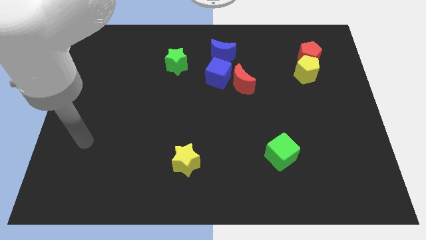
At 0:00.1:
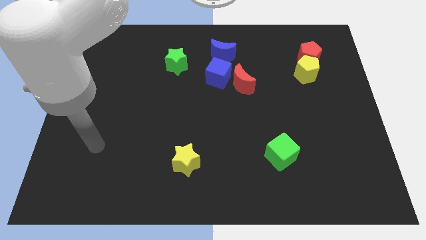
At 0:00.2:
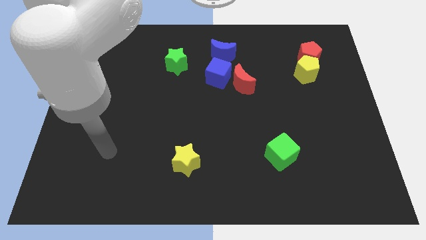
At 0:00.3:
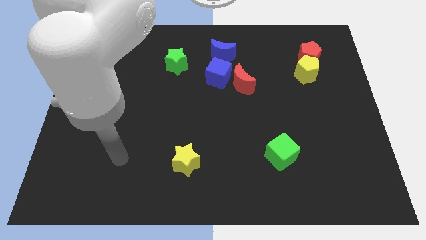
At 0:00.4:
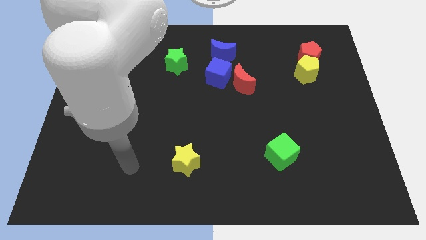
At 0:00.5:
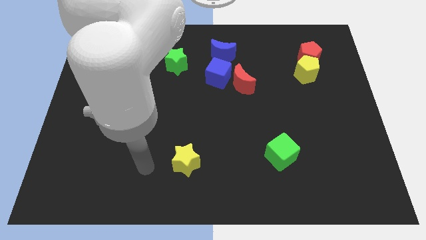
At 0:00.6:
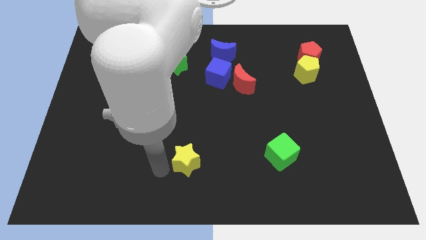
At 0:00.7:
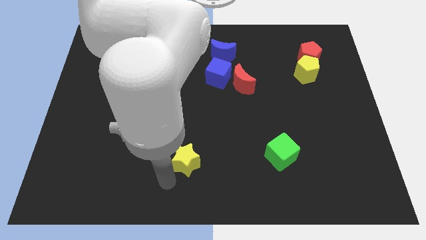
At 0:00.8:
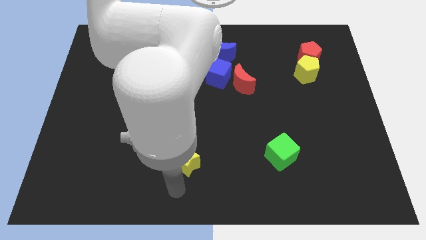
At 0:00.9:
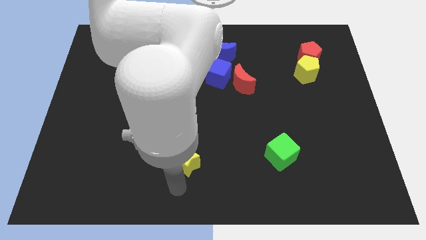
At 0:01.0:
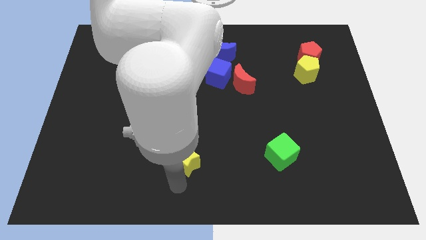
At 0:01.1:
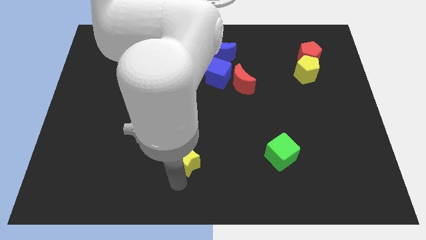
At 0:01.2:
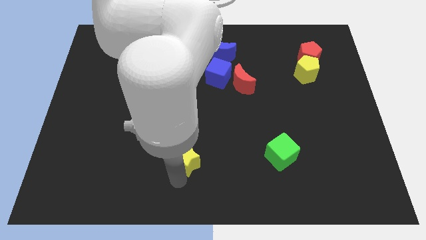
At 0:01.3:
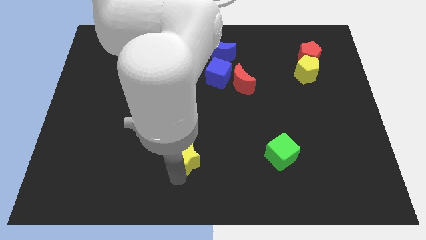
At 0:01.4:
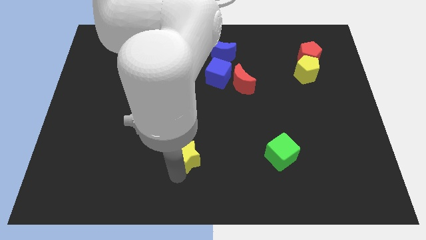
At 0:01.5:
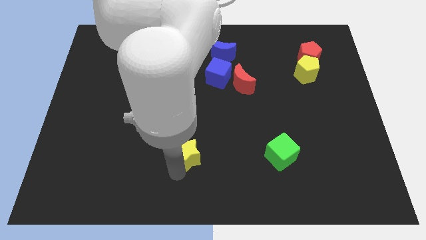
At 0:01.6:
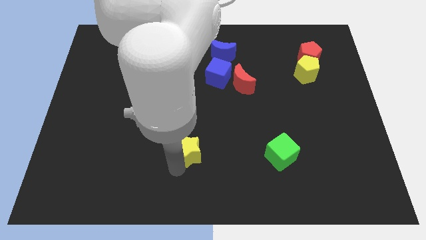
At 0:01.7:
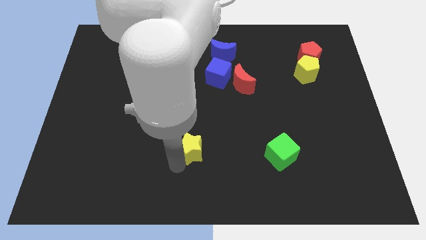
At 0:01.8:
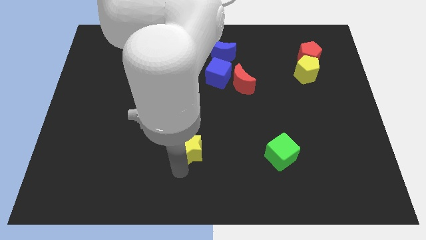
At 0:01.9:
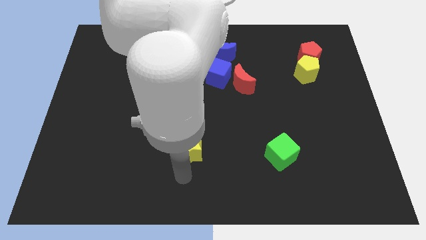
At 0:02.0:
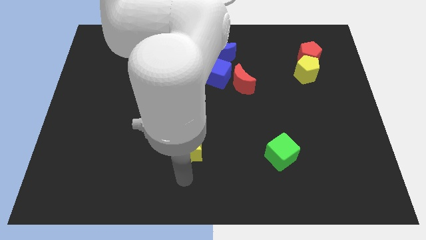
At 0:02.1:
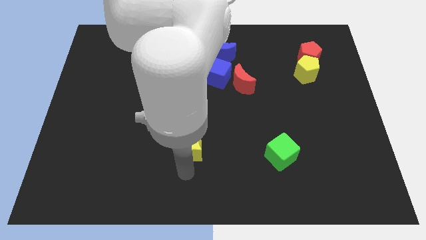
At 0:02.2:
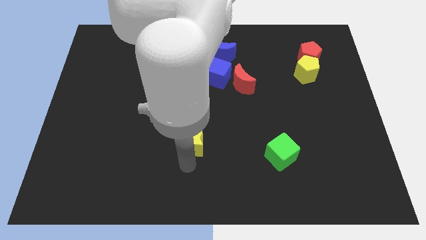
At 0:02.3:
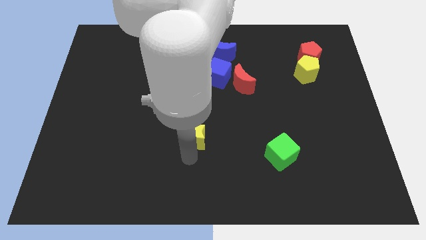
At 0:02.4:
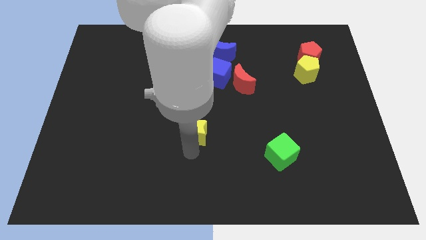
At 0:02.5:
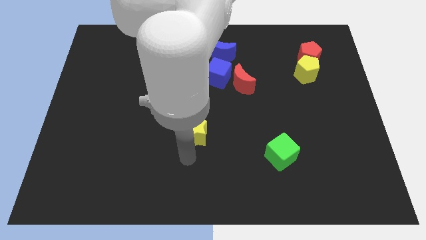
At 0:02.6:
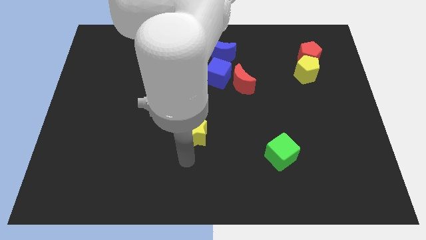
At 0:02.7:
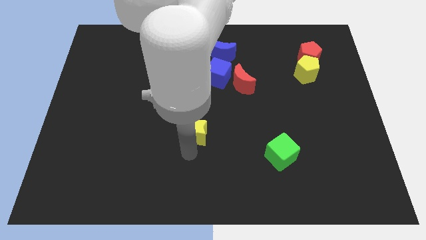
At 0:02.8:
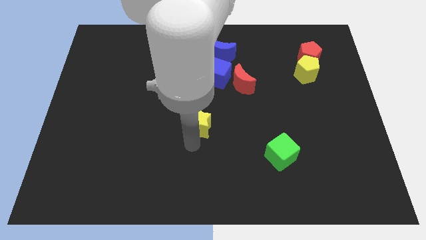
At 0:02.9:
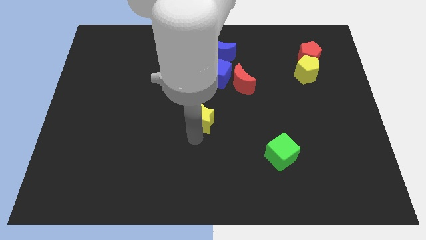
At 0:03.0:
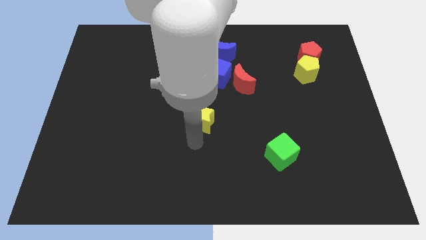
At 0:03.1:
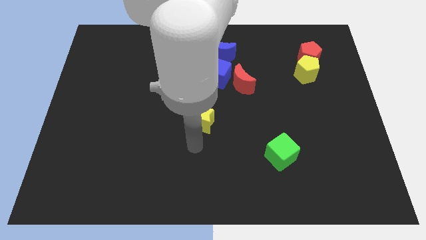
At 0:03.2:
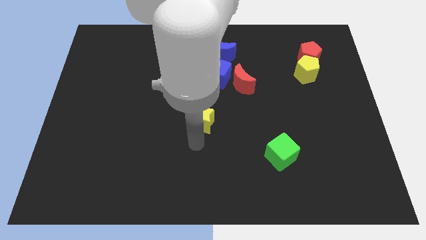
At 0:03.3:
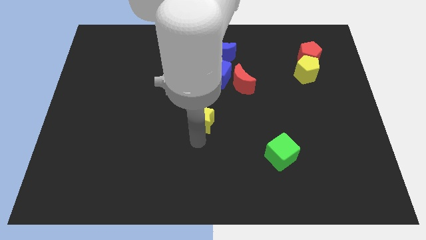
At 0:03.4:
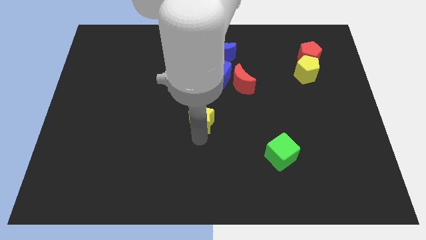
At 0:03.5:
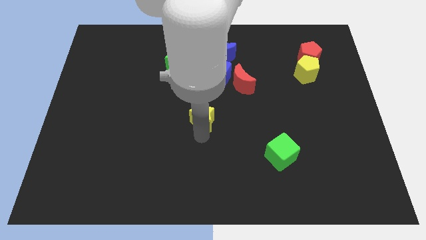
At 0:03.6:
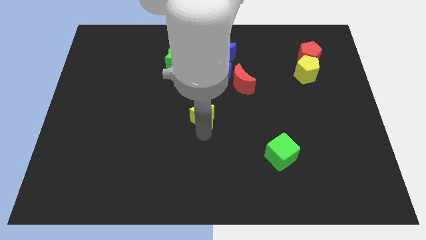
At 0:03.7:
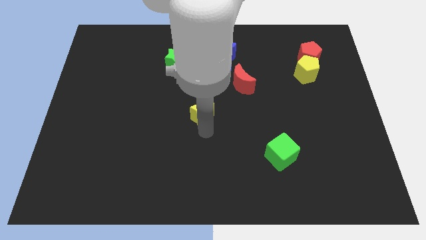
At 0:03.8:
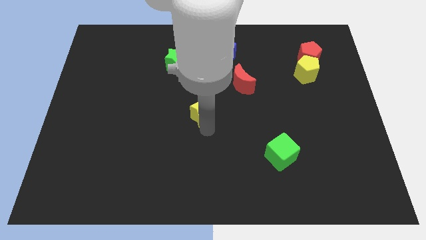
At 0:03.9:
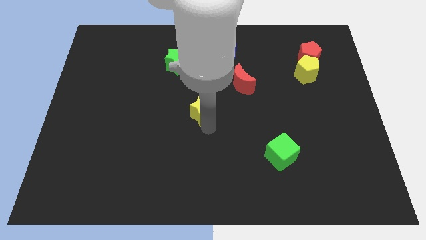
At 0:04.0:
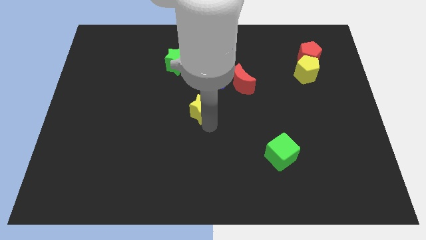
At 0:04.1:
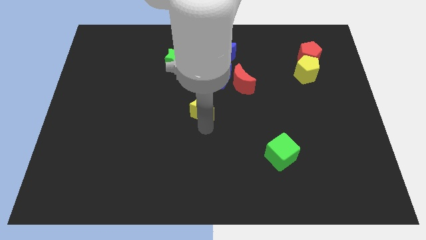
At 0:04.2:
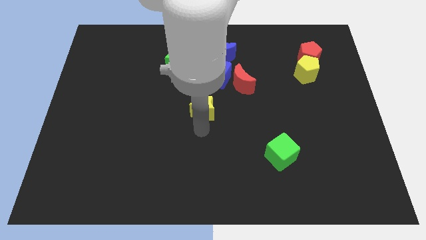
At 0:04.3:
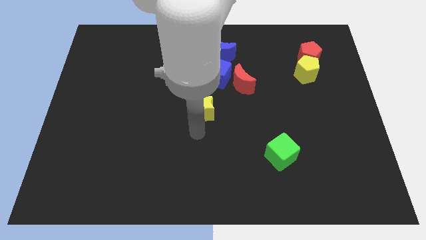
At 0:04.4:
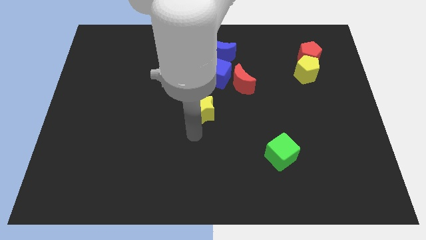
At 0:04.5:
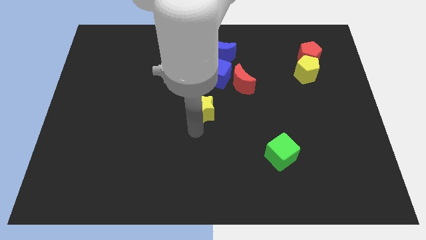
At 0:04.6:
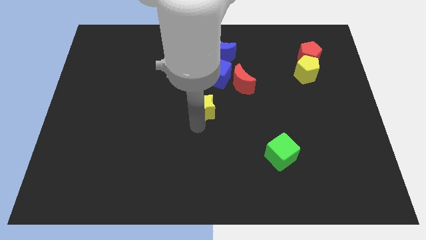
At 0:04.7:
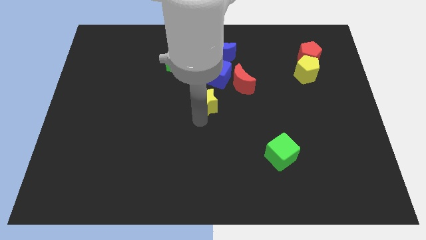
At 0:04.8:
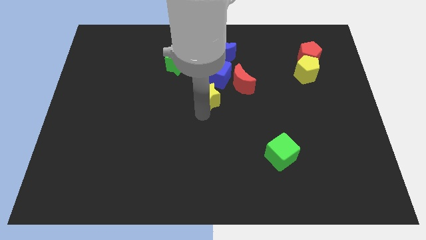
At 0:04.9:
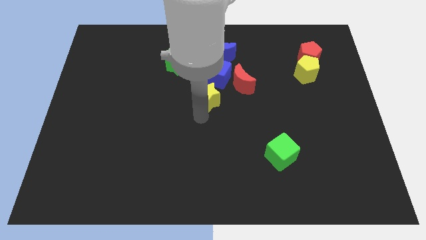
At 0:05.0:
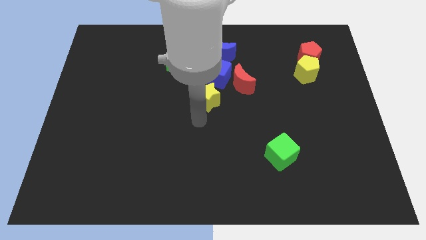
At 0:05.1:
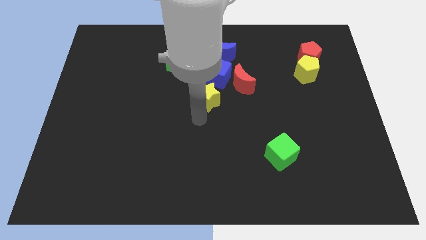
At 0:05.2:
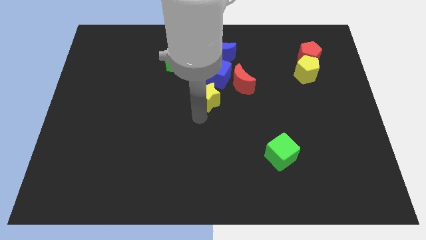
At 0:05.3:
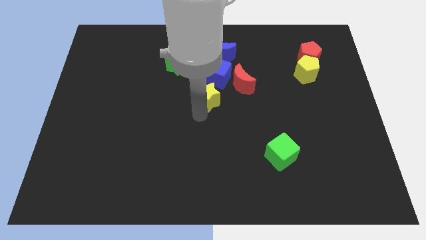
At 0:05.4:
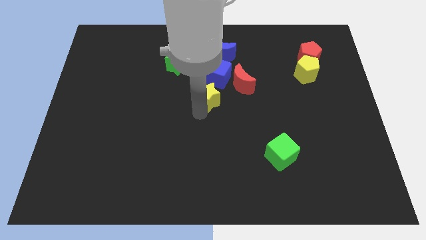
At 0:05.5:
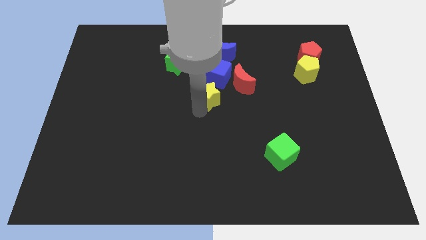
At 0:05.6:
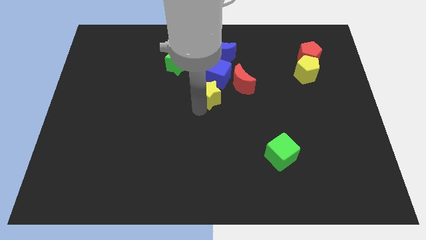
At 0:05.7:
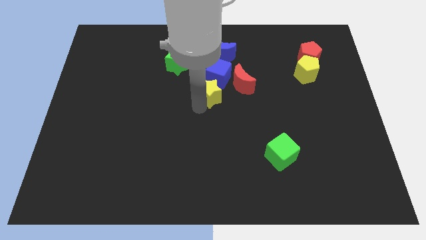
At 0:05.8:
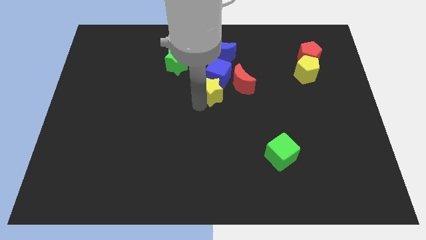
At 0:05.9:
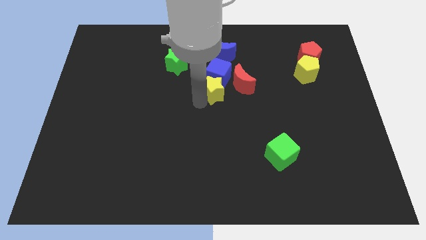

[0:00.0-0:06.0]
slide the yellow star close to the blue cube

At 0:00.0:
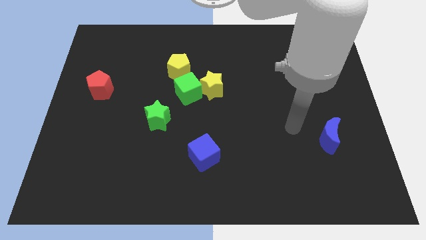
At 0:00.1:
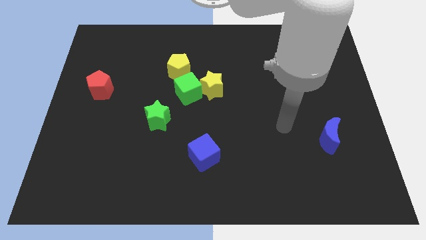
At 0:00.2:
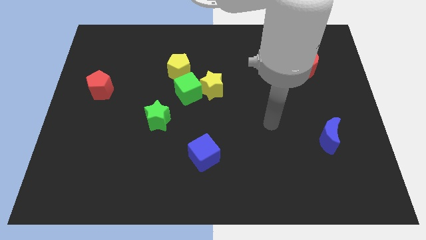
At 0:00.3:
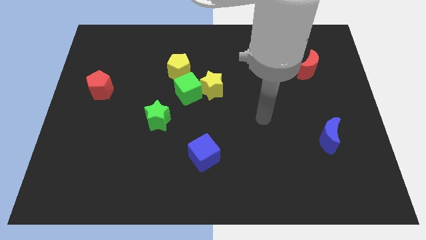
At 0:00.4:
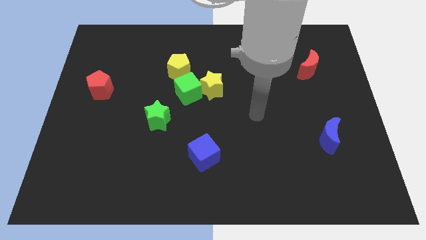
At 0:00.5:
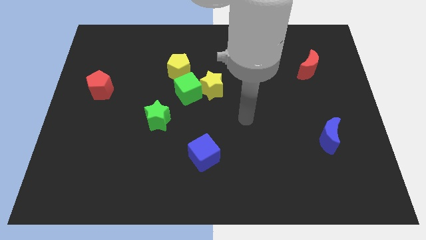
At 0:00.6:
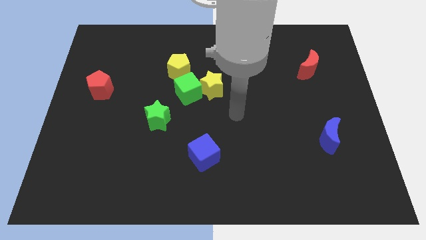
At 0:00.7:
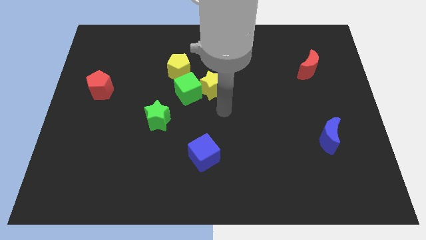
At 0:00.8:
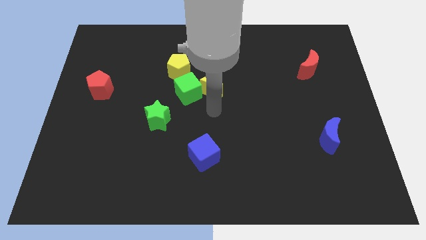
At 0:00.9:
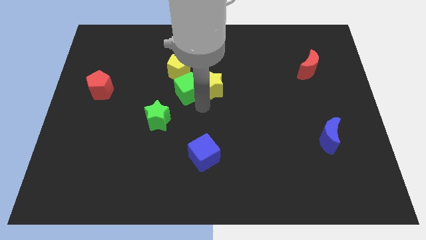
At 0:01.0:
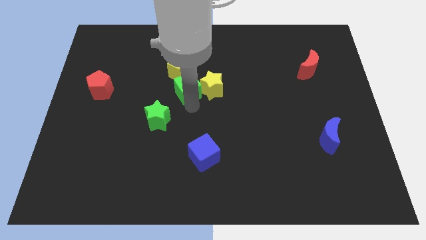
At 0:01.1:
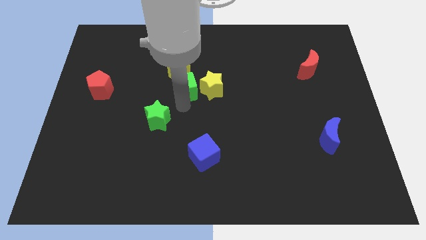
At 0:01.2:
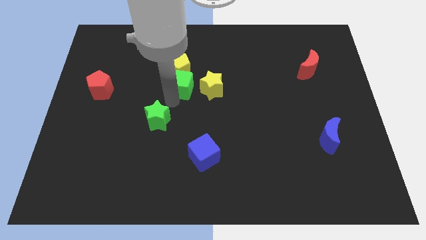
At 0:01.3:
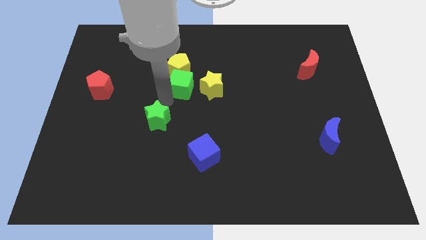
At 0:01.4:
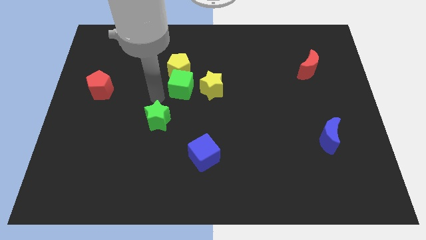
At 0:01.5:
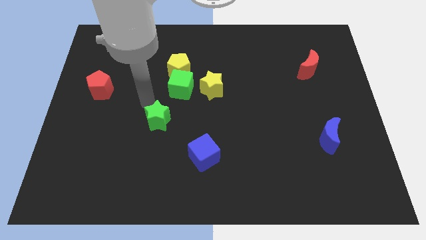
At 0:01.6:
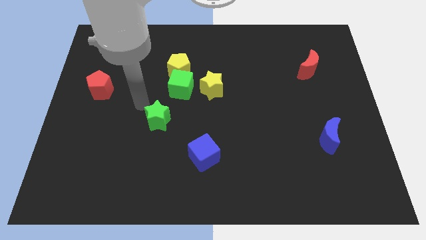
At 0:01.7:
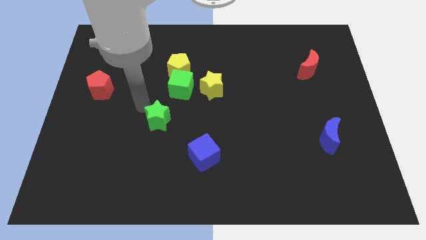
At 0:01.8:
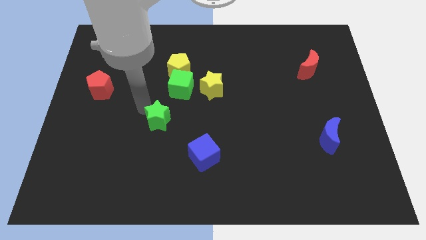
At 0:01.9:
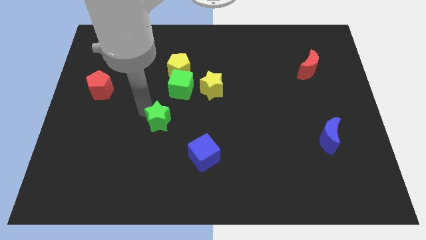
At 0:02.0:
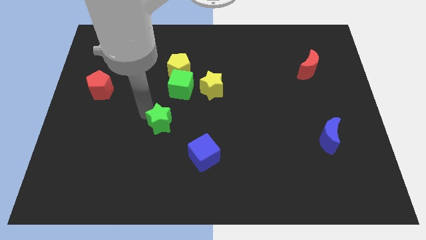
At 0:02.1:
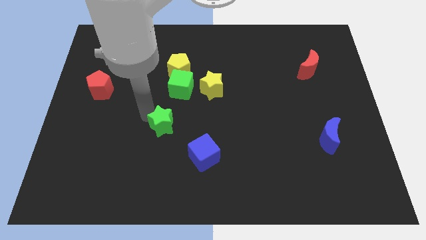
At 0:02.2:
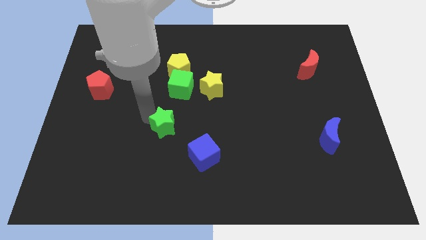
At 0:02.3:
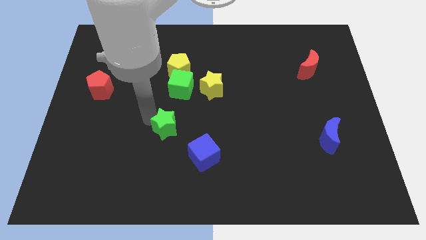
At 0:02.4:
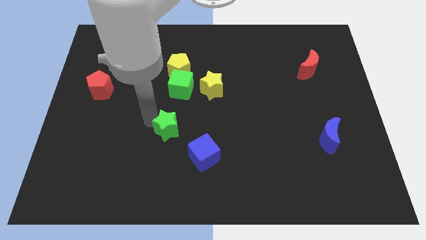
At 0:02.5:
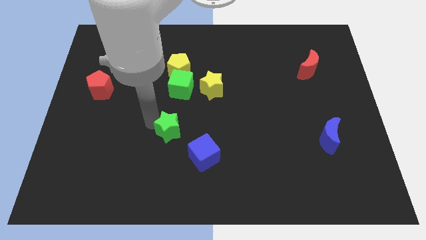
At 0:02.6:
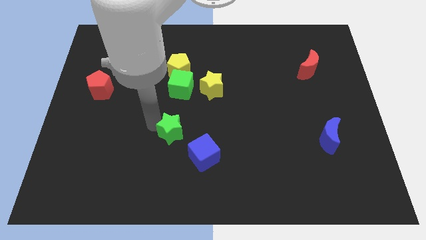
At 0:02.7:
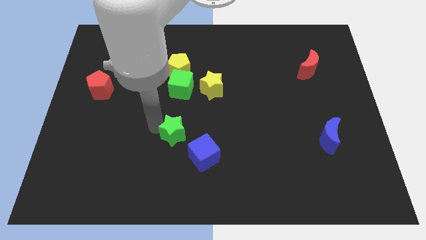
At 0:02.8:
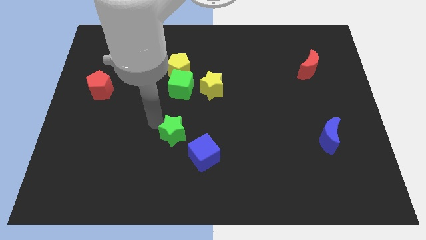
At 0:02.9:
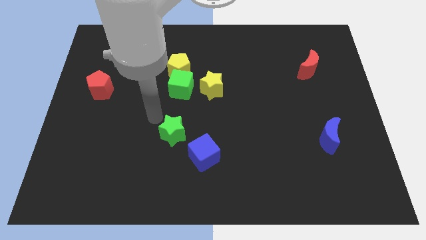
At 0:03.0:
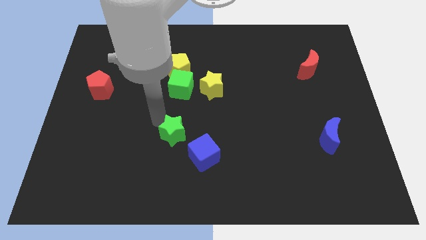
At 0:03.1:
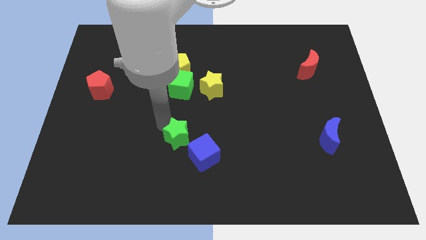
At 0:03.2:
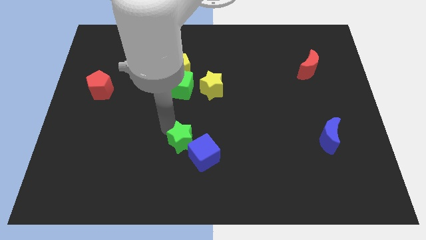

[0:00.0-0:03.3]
put the green star to the blue cube
